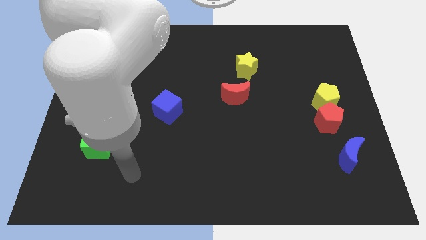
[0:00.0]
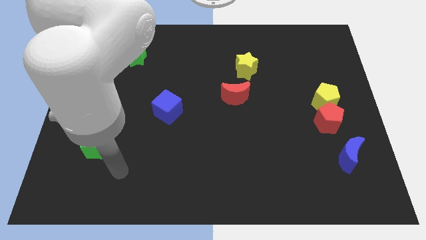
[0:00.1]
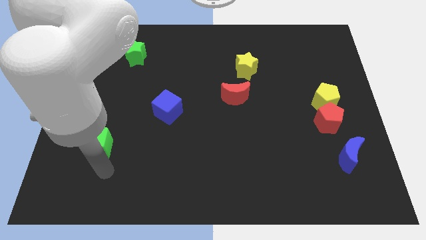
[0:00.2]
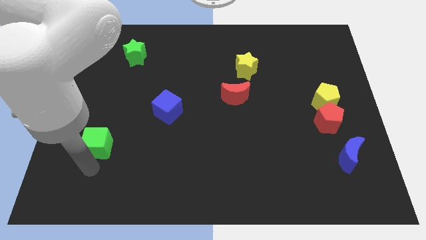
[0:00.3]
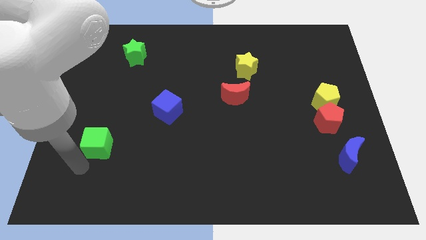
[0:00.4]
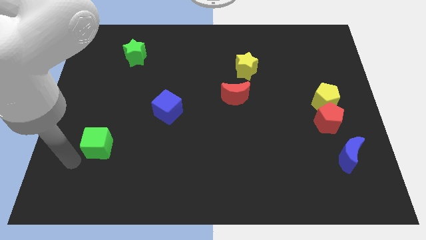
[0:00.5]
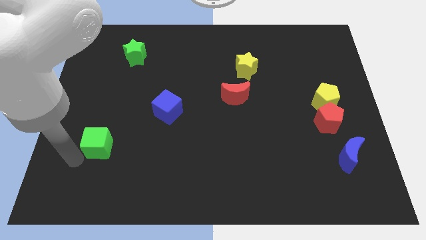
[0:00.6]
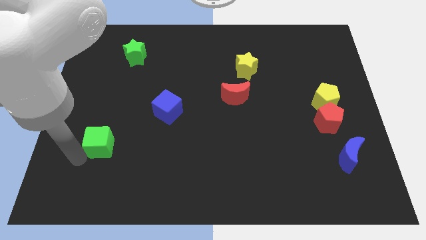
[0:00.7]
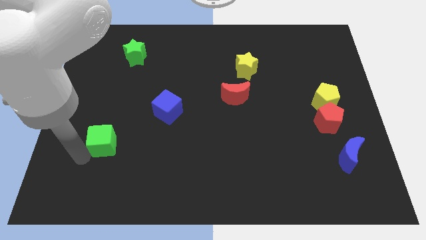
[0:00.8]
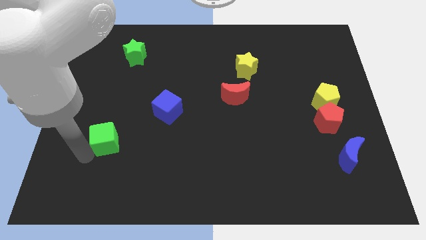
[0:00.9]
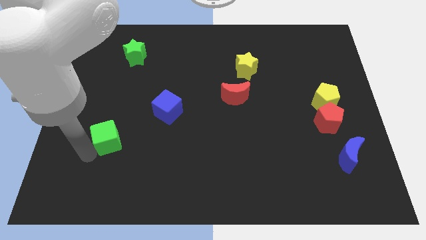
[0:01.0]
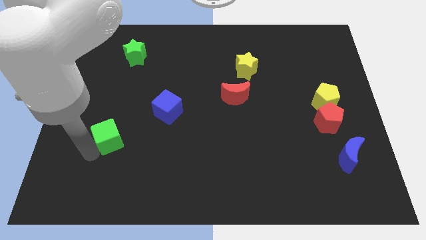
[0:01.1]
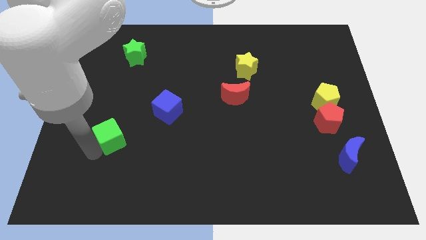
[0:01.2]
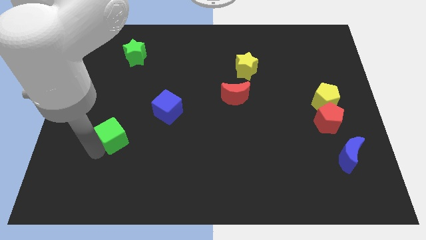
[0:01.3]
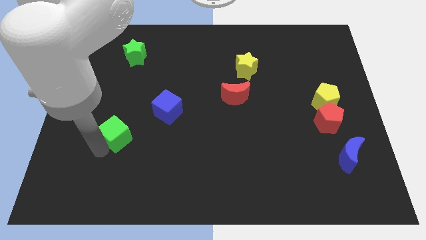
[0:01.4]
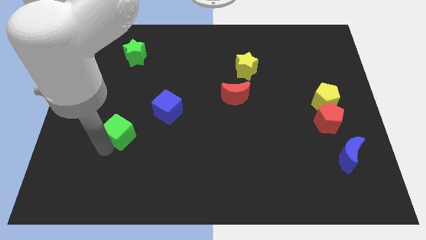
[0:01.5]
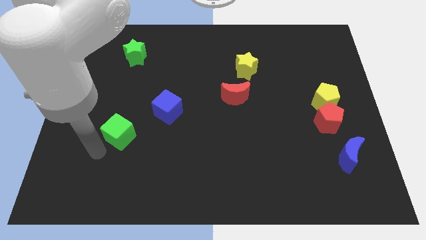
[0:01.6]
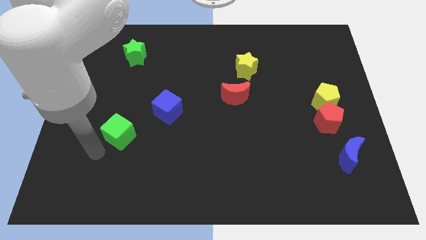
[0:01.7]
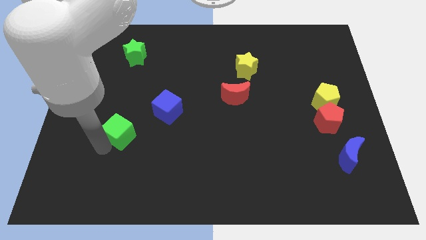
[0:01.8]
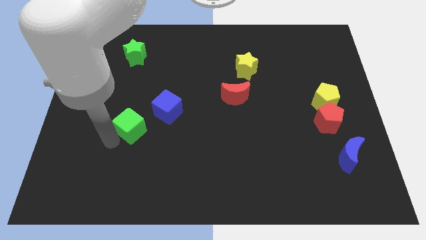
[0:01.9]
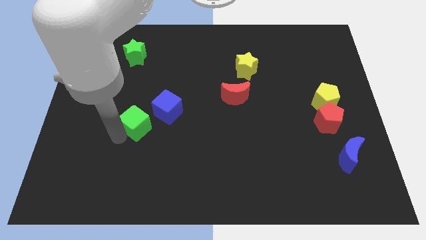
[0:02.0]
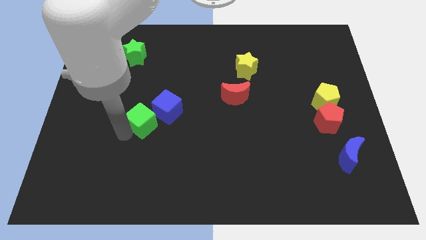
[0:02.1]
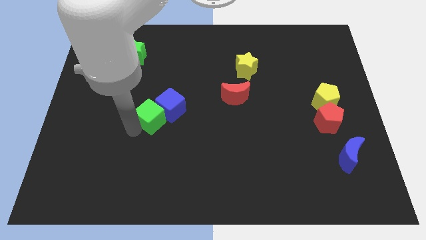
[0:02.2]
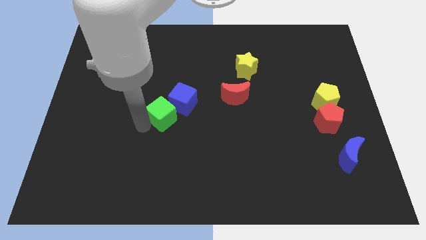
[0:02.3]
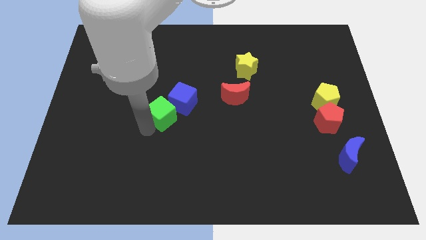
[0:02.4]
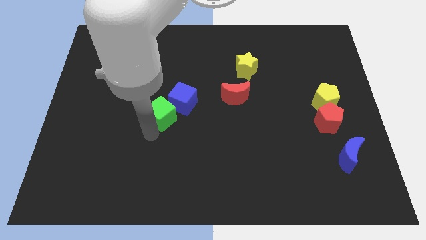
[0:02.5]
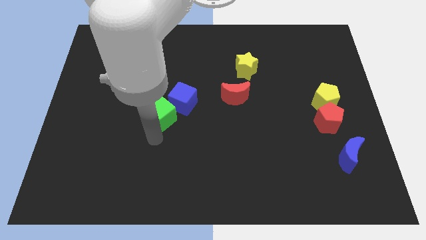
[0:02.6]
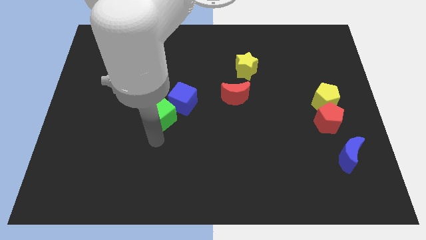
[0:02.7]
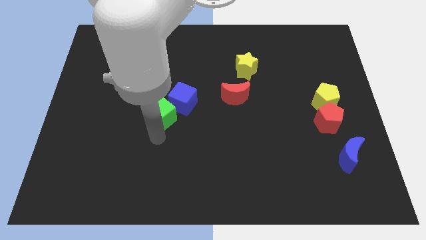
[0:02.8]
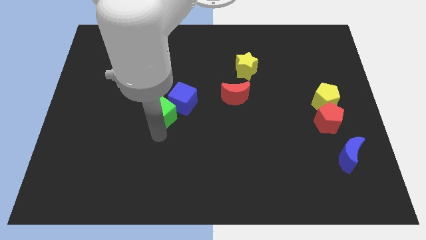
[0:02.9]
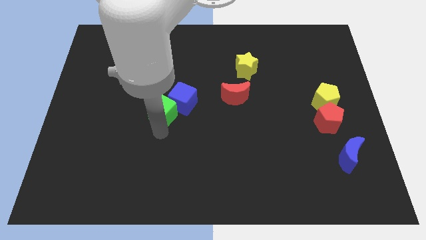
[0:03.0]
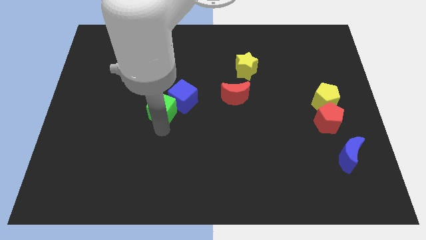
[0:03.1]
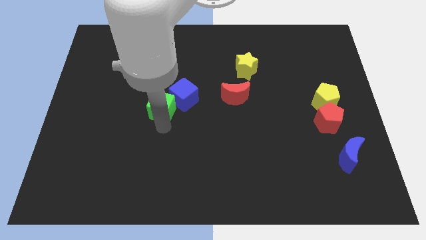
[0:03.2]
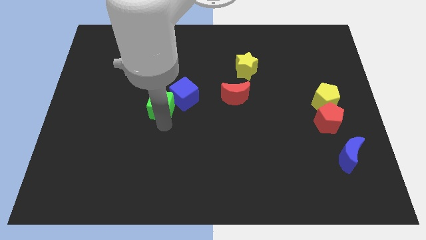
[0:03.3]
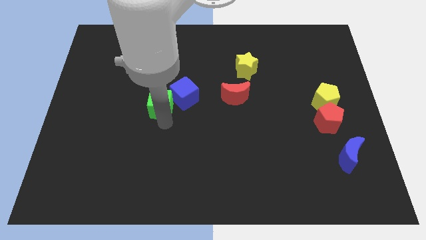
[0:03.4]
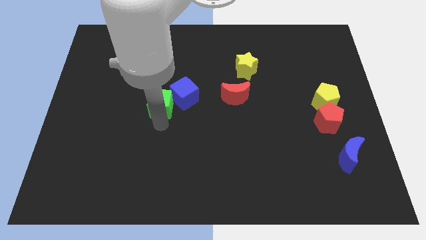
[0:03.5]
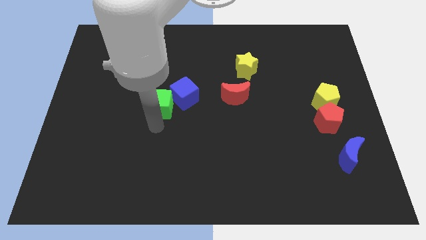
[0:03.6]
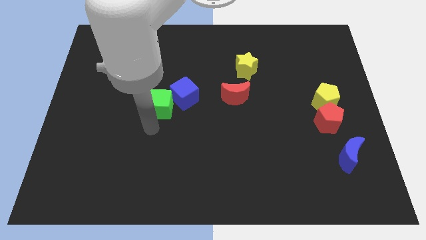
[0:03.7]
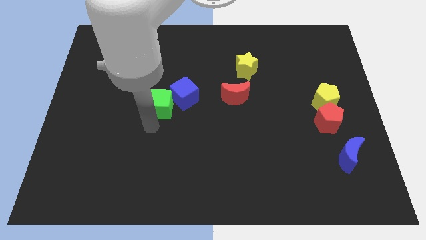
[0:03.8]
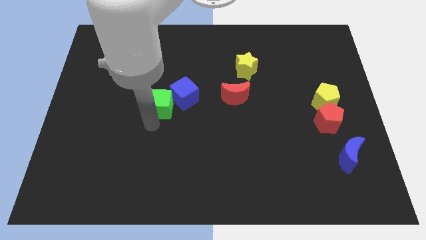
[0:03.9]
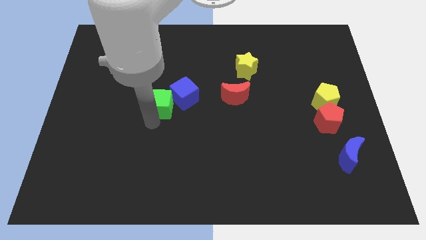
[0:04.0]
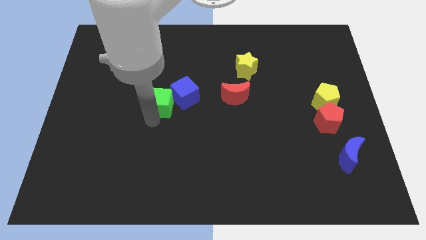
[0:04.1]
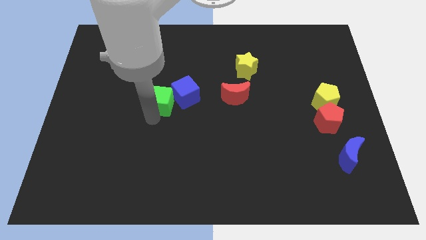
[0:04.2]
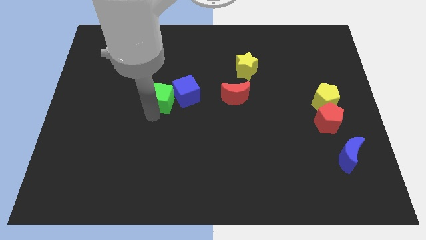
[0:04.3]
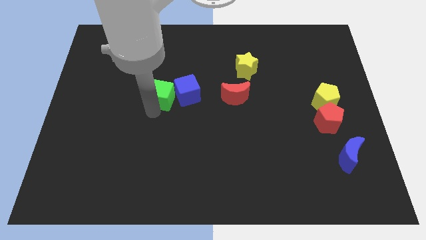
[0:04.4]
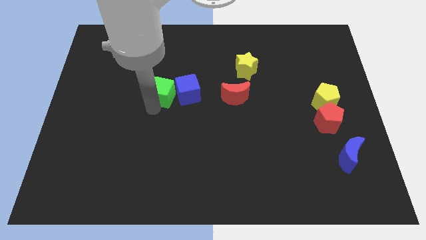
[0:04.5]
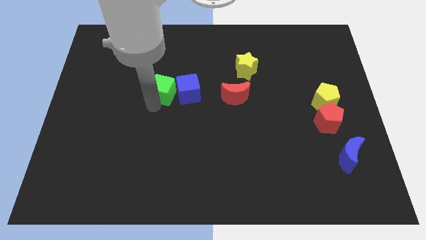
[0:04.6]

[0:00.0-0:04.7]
slide the green cube upwards and right diagonally

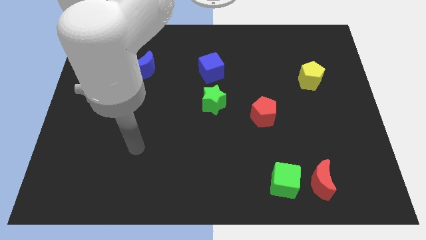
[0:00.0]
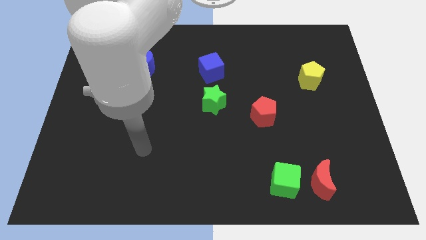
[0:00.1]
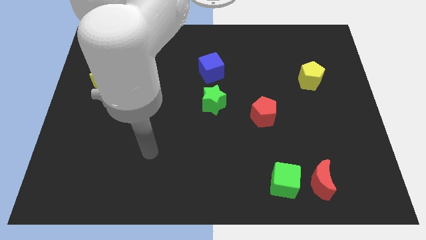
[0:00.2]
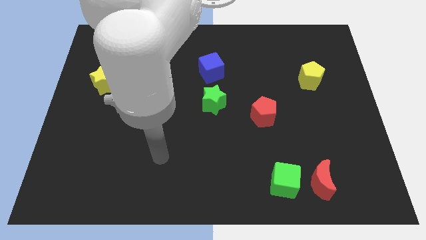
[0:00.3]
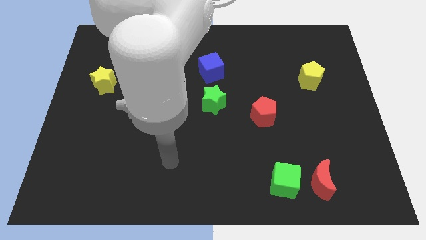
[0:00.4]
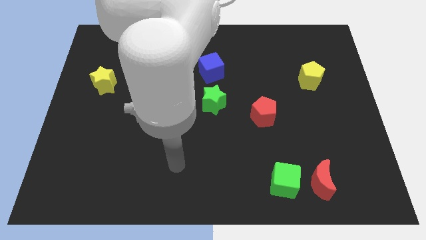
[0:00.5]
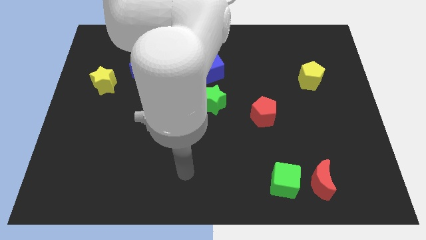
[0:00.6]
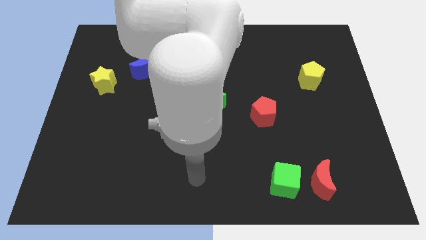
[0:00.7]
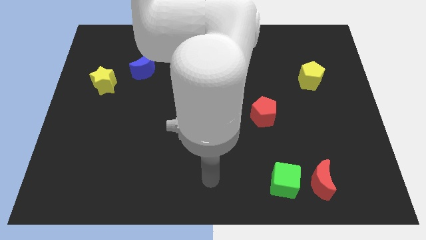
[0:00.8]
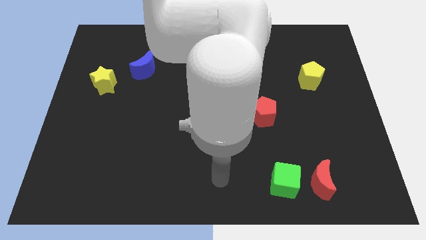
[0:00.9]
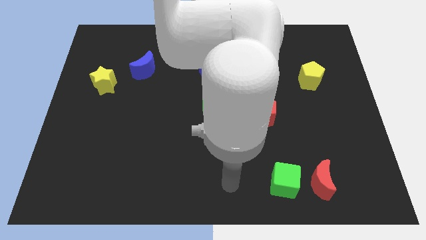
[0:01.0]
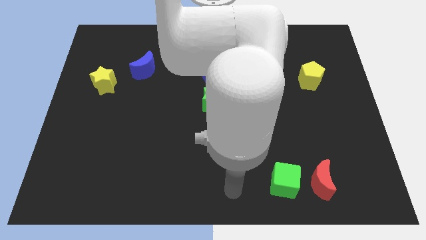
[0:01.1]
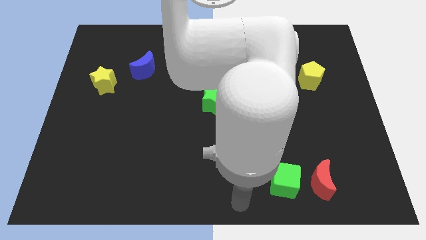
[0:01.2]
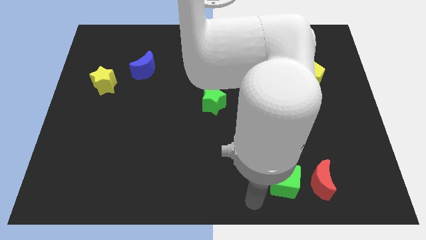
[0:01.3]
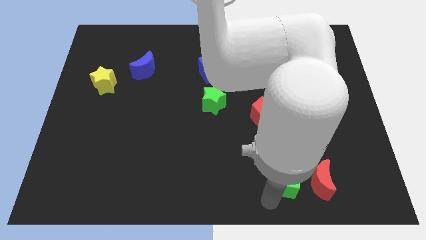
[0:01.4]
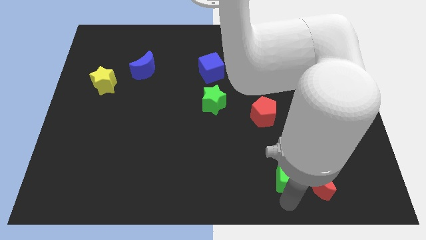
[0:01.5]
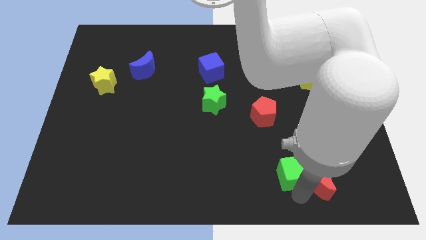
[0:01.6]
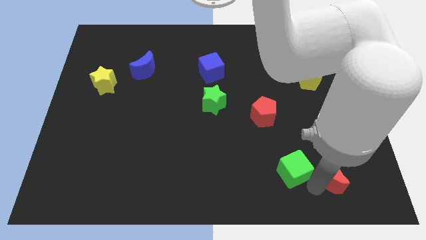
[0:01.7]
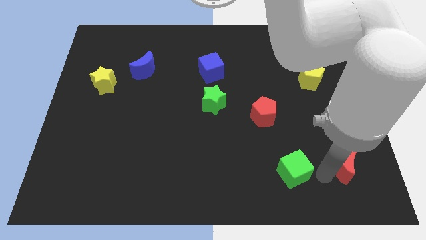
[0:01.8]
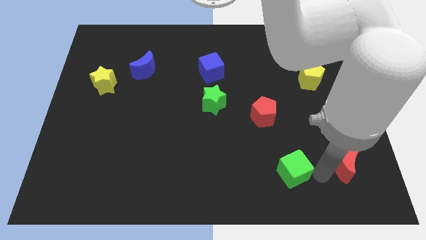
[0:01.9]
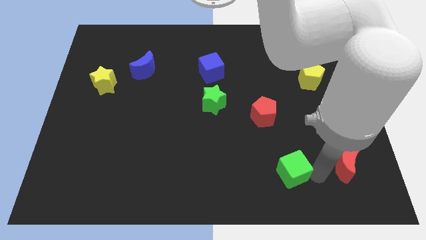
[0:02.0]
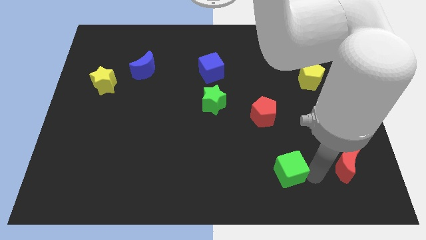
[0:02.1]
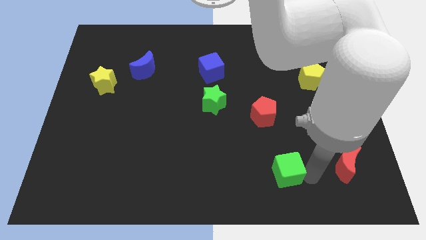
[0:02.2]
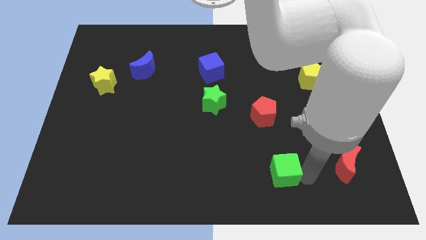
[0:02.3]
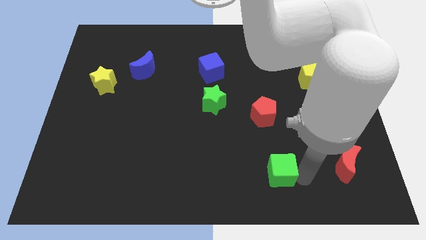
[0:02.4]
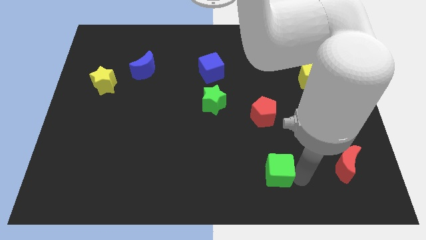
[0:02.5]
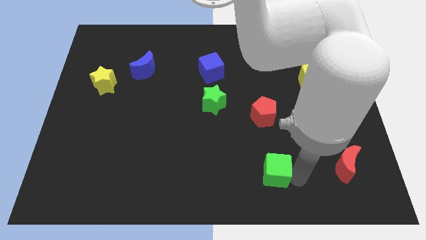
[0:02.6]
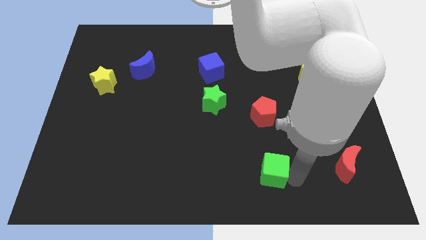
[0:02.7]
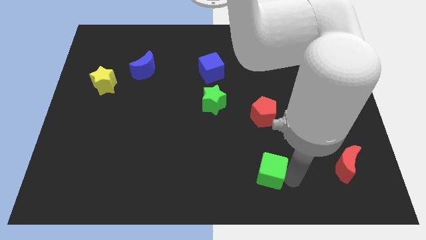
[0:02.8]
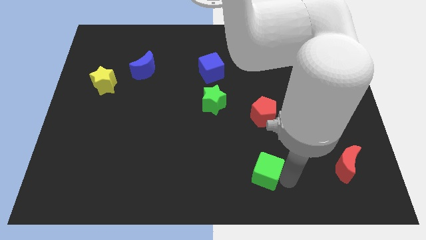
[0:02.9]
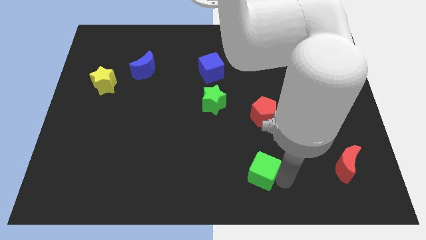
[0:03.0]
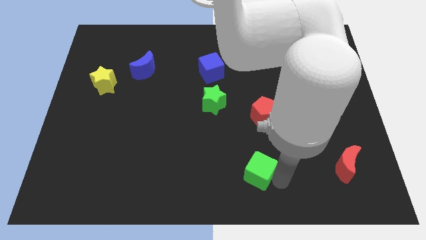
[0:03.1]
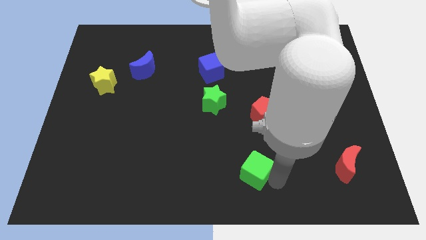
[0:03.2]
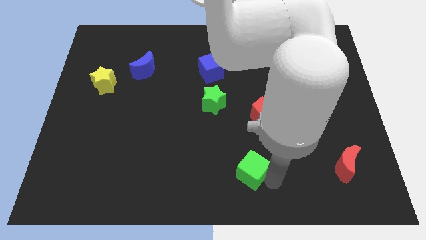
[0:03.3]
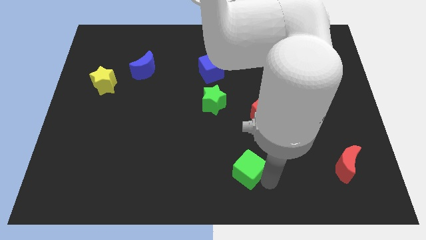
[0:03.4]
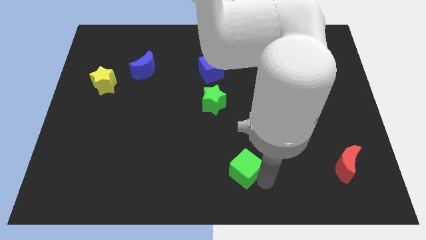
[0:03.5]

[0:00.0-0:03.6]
slide the green cube a little upwards and then to the left

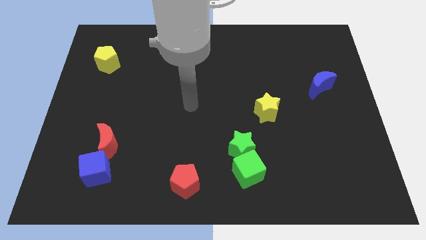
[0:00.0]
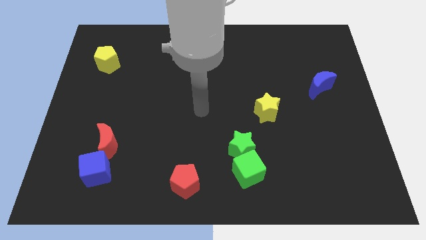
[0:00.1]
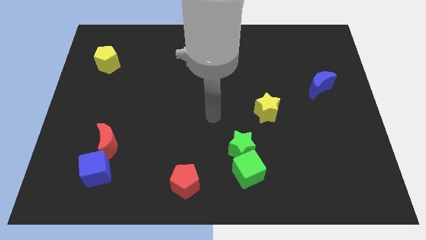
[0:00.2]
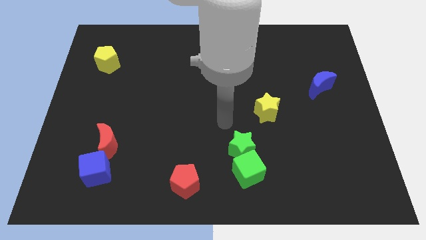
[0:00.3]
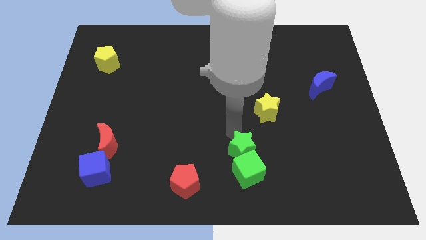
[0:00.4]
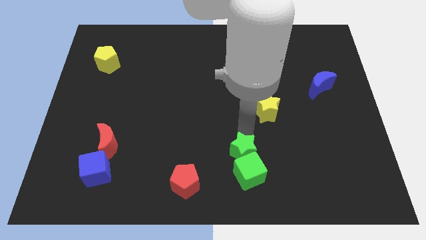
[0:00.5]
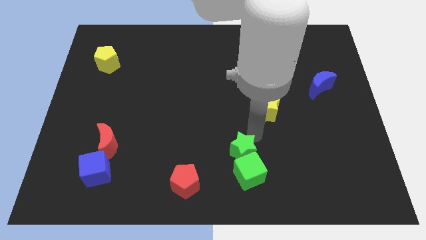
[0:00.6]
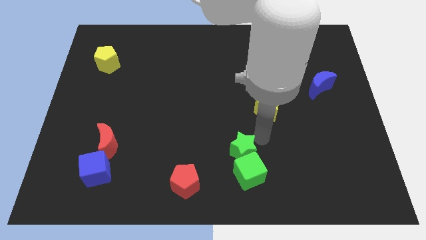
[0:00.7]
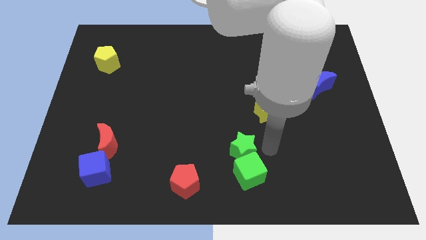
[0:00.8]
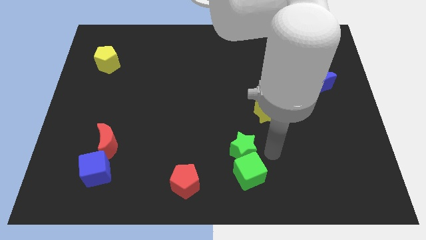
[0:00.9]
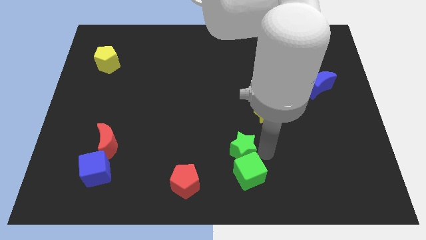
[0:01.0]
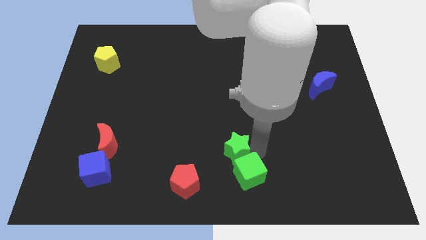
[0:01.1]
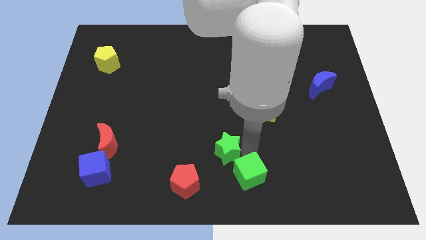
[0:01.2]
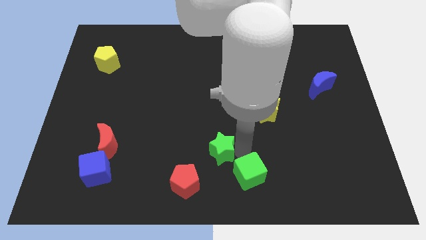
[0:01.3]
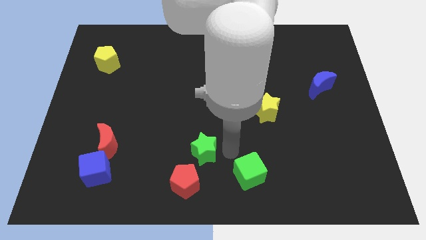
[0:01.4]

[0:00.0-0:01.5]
move the green star a little to the left
